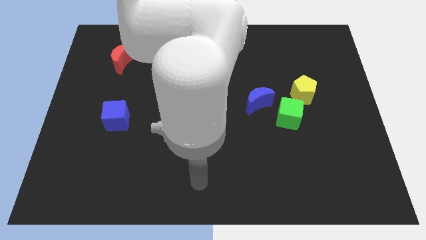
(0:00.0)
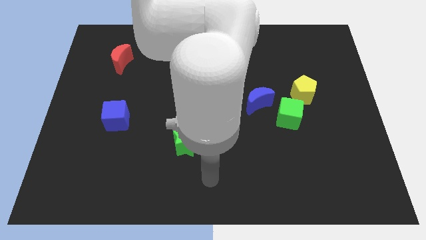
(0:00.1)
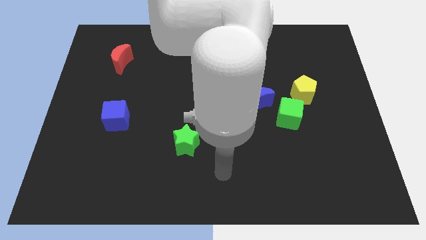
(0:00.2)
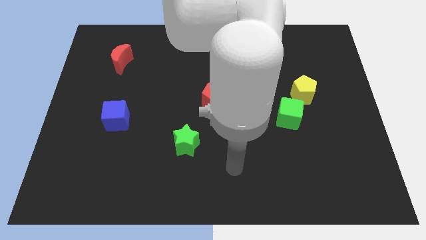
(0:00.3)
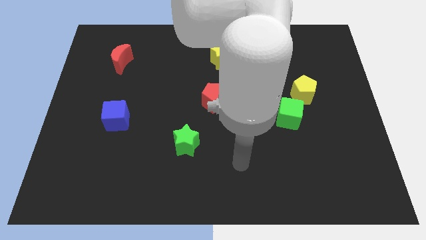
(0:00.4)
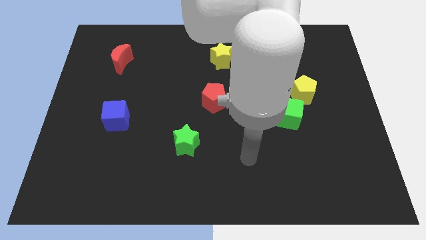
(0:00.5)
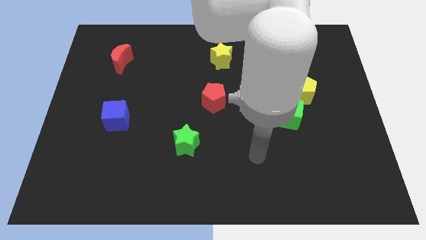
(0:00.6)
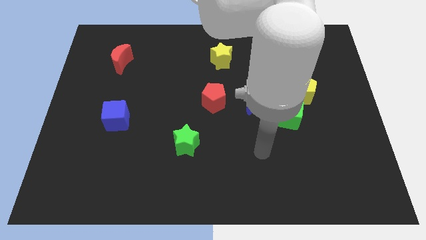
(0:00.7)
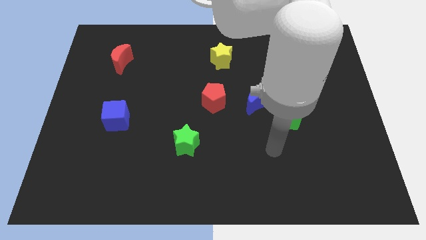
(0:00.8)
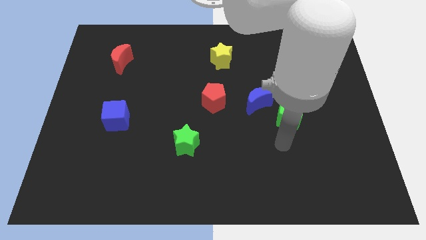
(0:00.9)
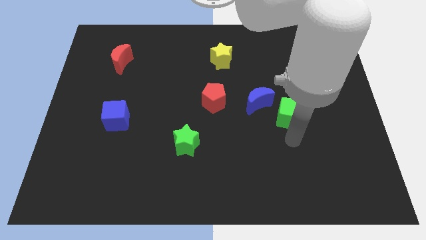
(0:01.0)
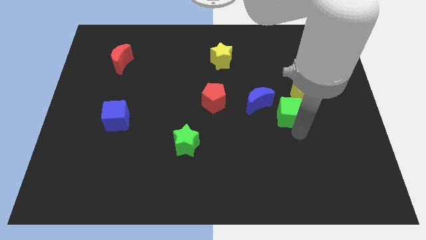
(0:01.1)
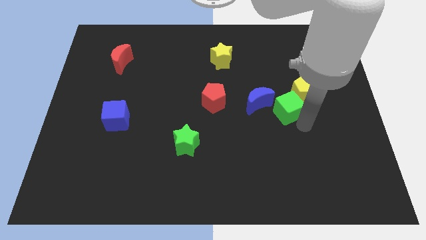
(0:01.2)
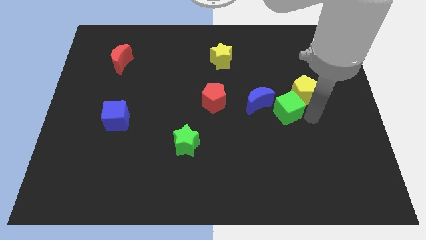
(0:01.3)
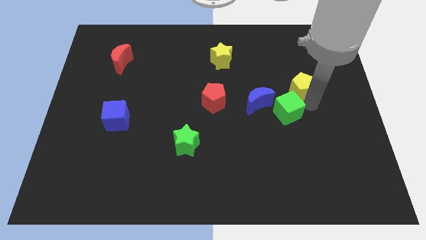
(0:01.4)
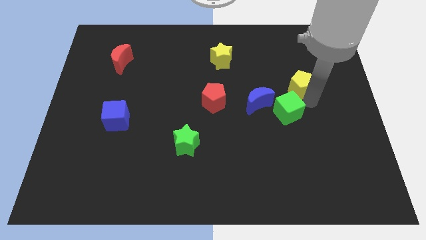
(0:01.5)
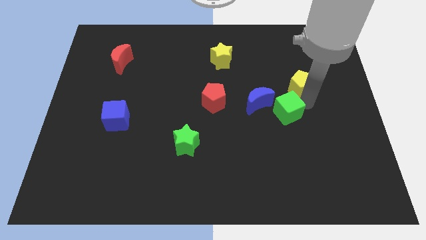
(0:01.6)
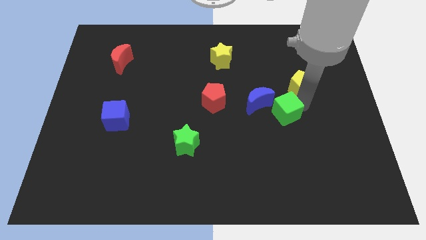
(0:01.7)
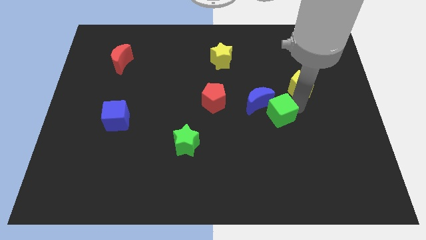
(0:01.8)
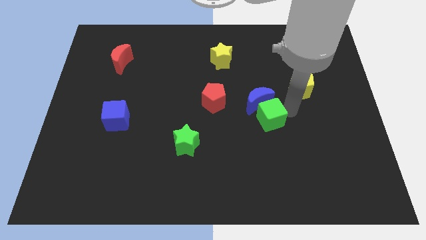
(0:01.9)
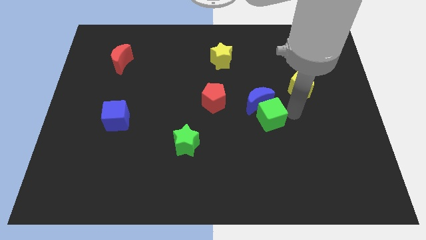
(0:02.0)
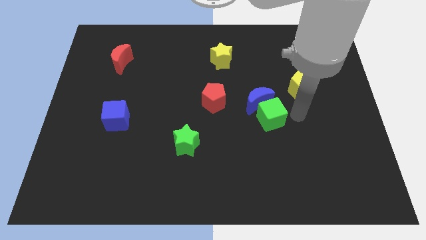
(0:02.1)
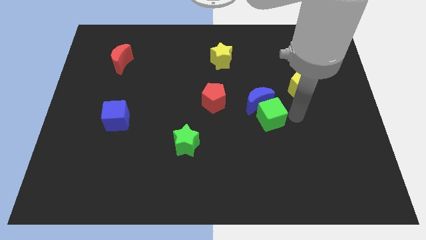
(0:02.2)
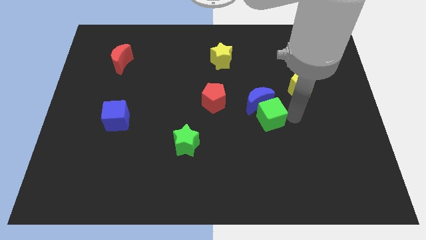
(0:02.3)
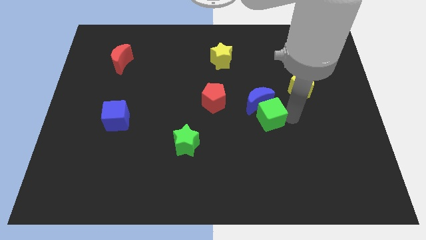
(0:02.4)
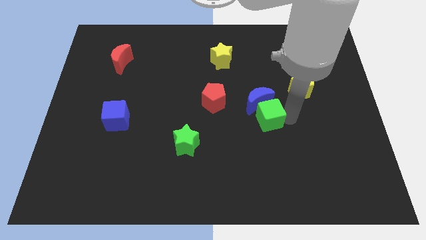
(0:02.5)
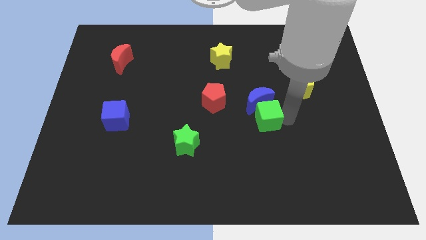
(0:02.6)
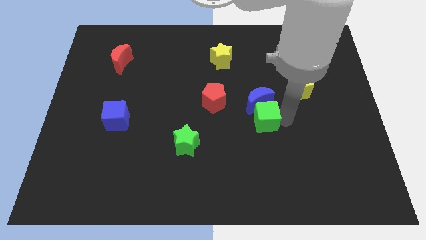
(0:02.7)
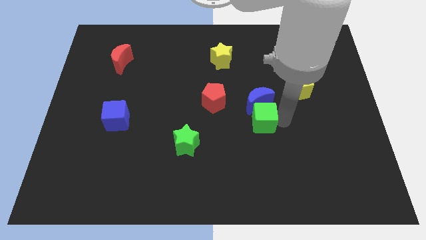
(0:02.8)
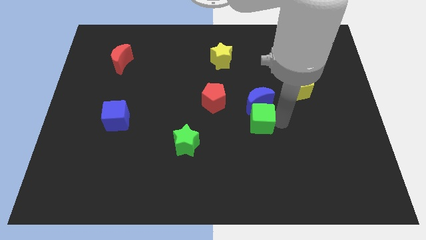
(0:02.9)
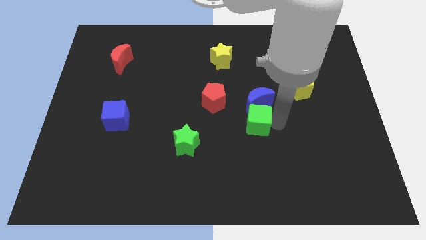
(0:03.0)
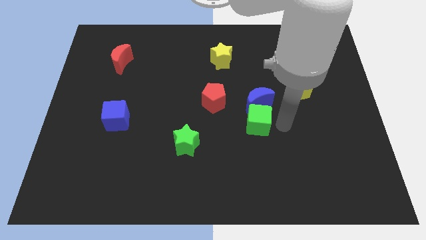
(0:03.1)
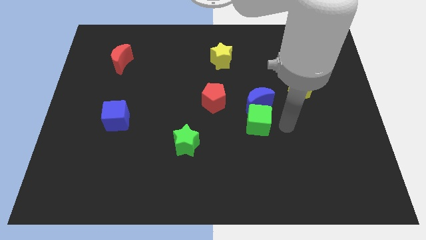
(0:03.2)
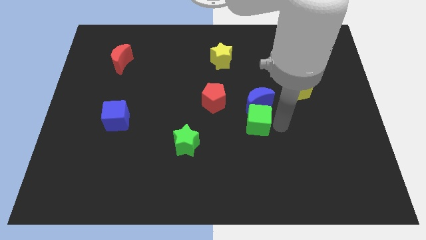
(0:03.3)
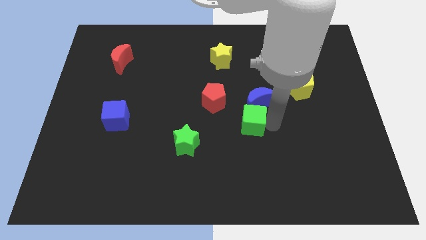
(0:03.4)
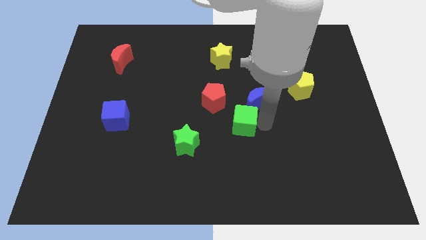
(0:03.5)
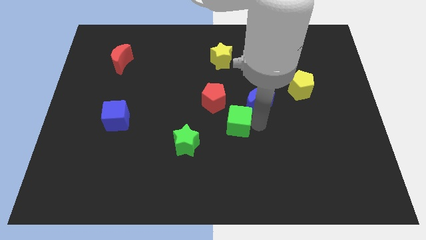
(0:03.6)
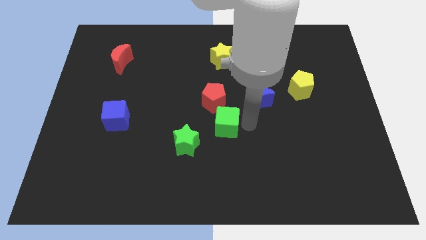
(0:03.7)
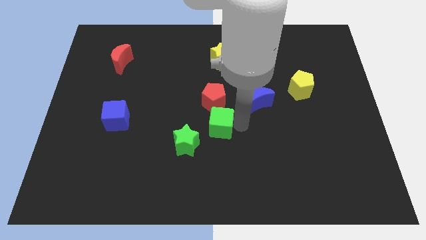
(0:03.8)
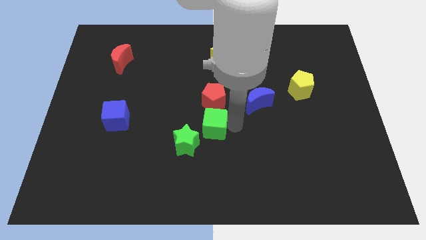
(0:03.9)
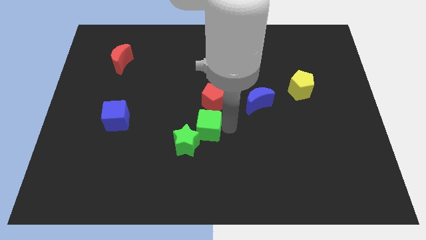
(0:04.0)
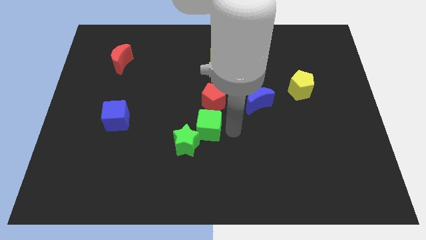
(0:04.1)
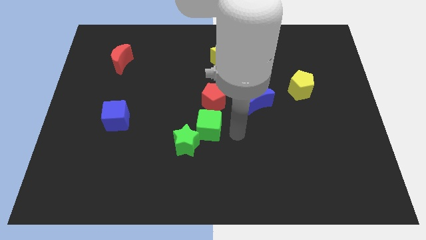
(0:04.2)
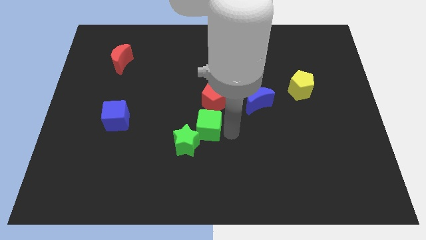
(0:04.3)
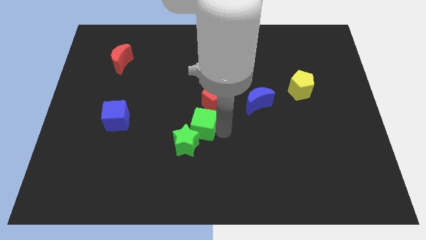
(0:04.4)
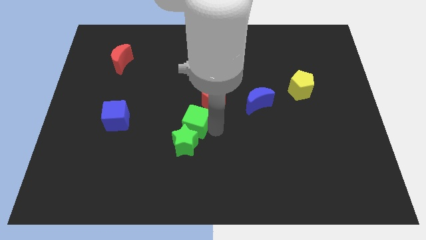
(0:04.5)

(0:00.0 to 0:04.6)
move the green cube to the left

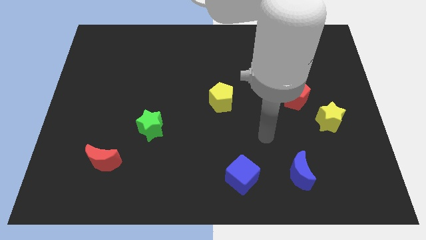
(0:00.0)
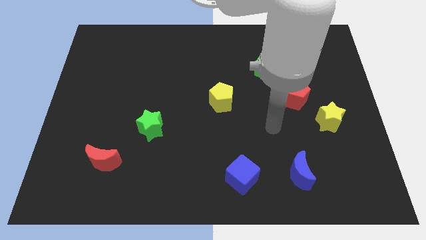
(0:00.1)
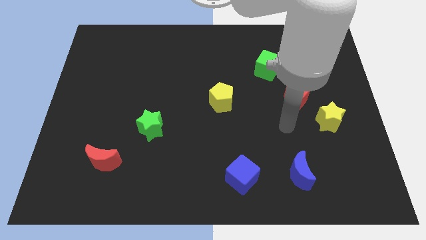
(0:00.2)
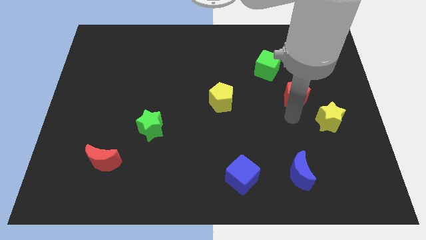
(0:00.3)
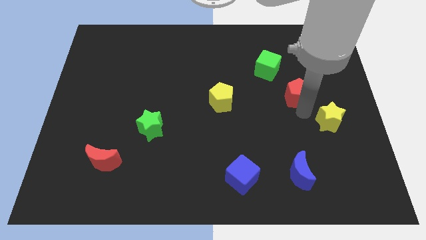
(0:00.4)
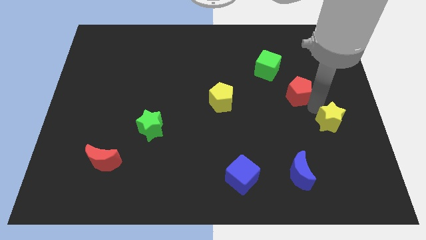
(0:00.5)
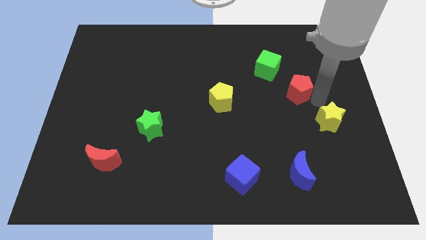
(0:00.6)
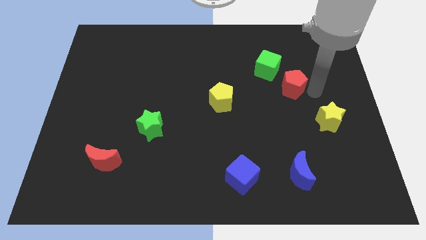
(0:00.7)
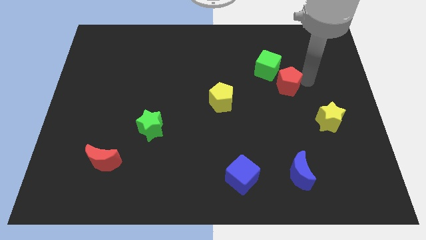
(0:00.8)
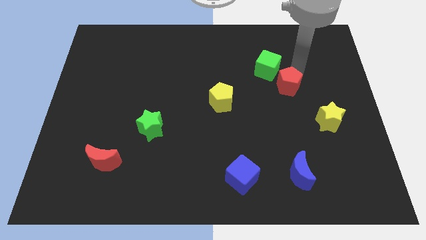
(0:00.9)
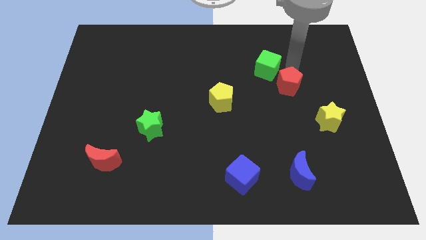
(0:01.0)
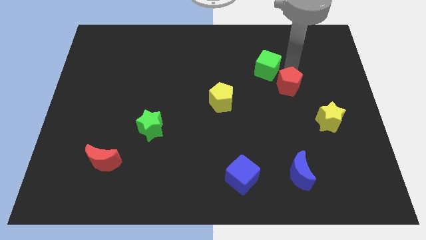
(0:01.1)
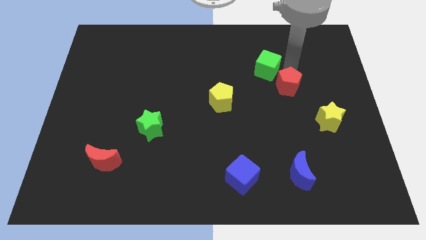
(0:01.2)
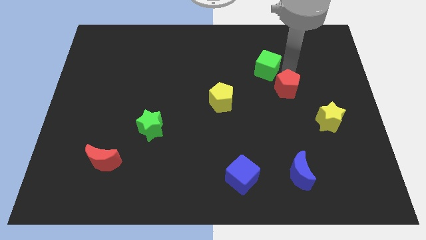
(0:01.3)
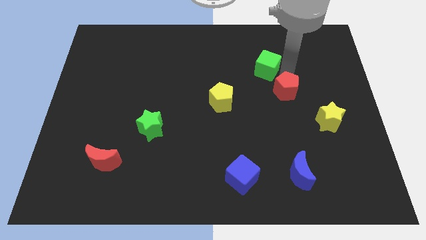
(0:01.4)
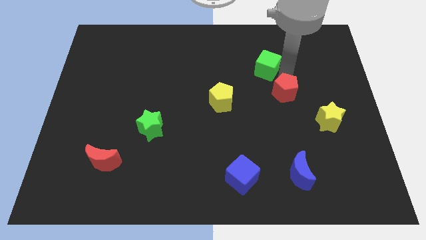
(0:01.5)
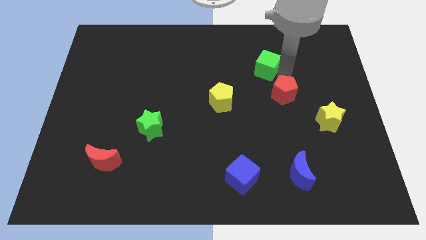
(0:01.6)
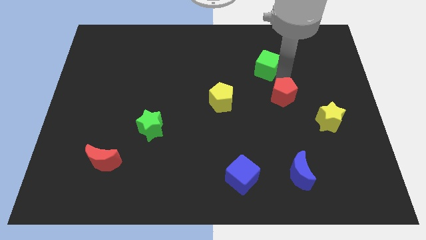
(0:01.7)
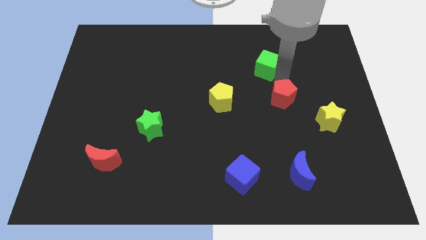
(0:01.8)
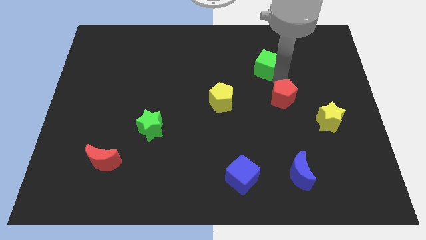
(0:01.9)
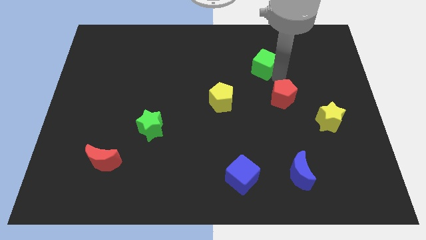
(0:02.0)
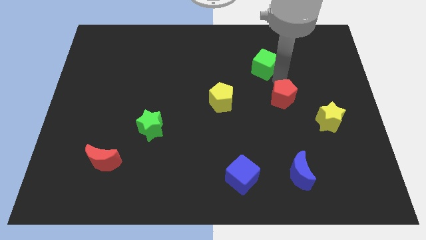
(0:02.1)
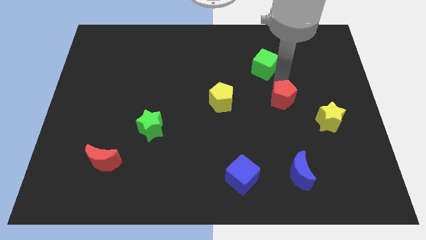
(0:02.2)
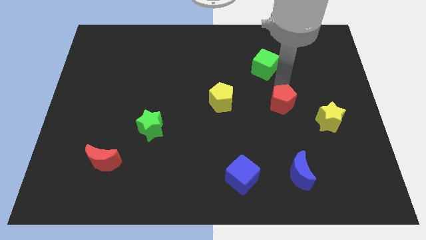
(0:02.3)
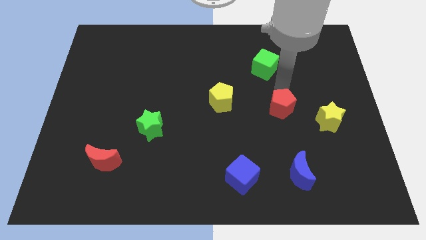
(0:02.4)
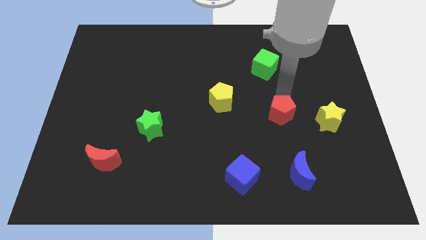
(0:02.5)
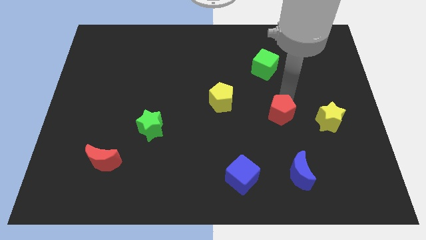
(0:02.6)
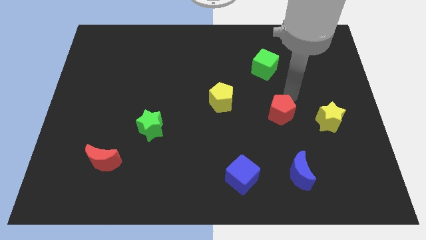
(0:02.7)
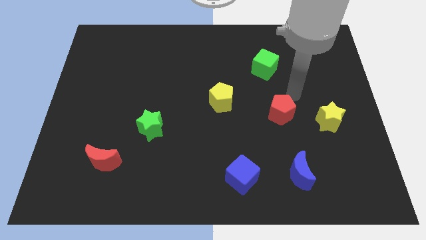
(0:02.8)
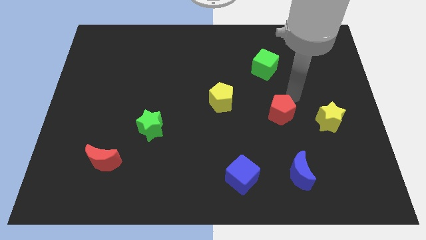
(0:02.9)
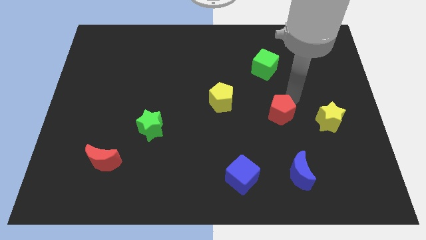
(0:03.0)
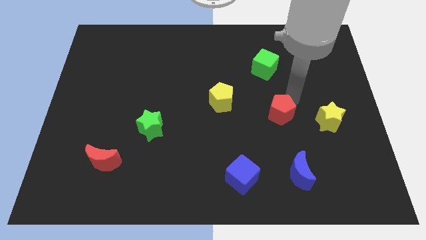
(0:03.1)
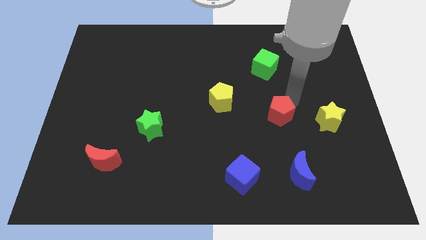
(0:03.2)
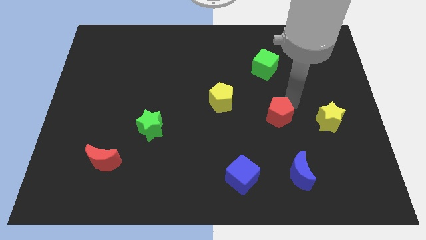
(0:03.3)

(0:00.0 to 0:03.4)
push the red pentagon a little down and then left
